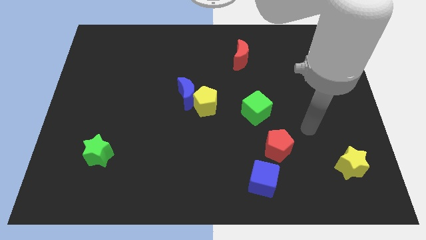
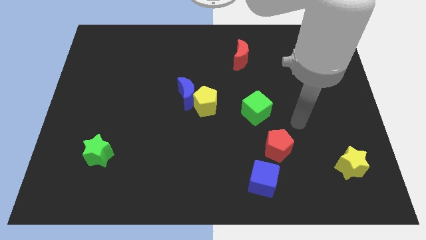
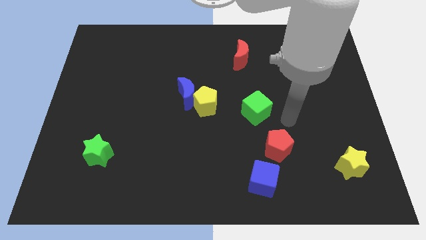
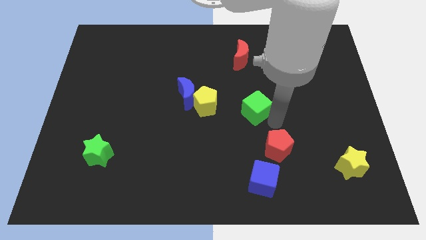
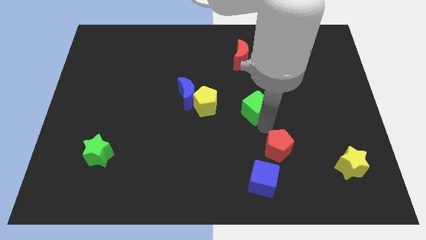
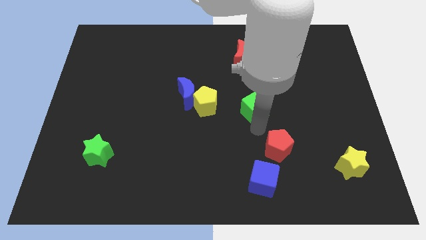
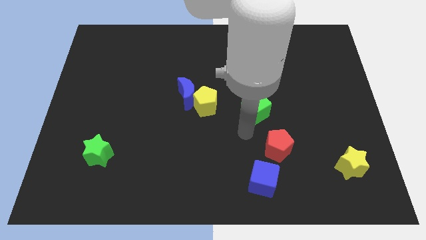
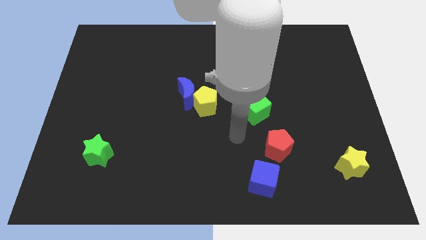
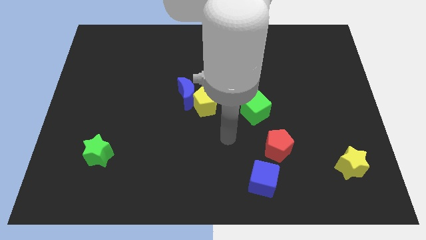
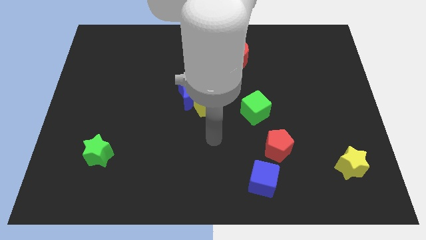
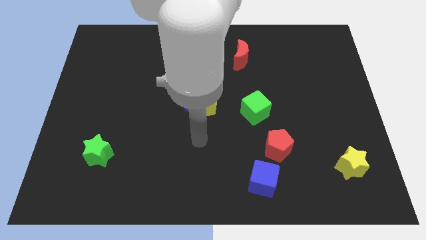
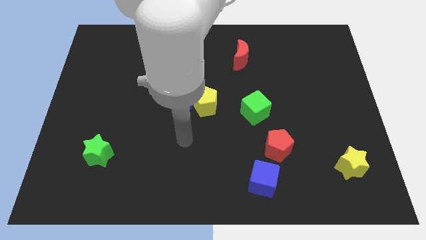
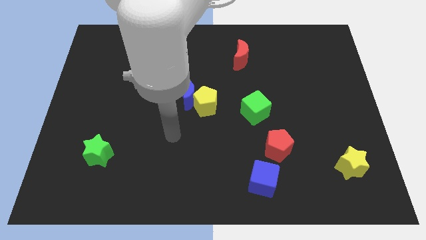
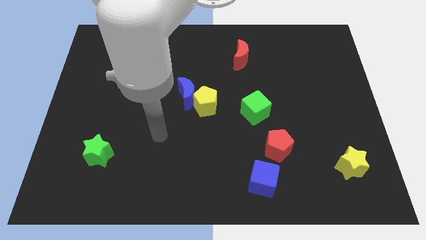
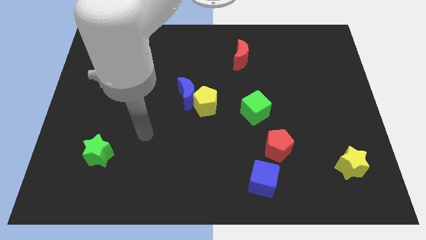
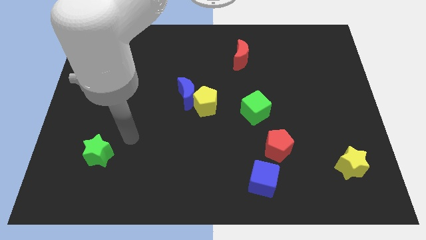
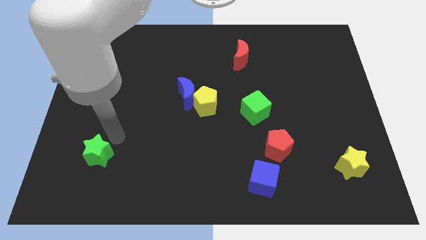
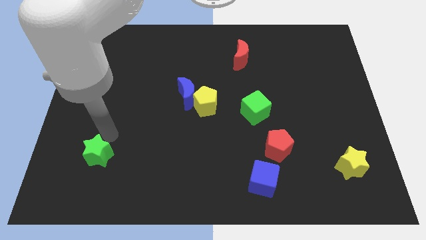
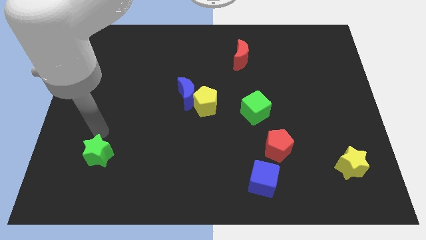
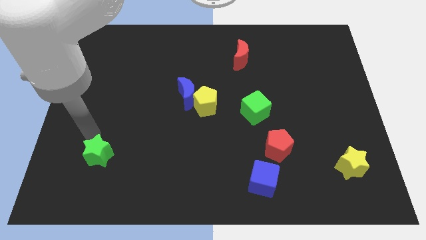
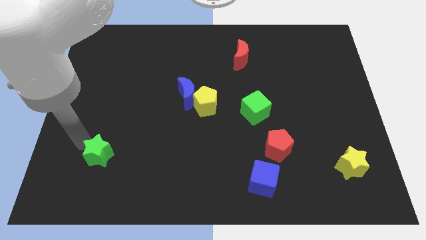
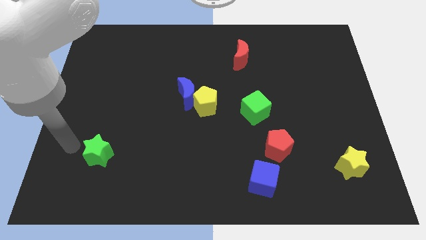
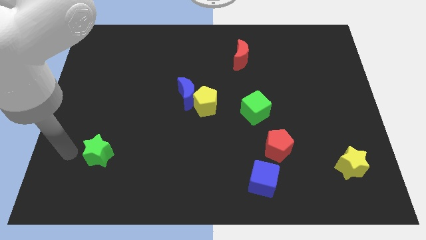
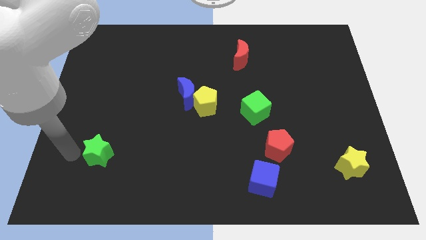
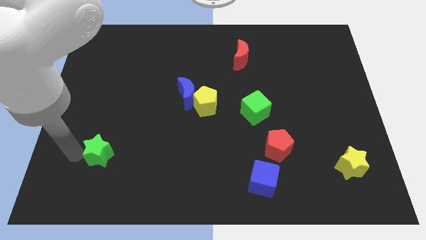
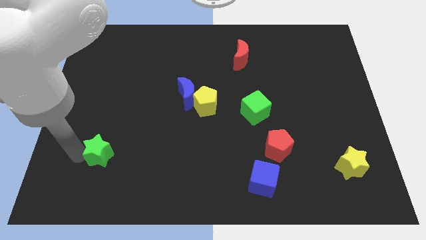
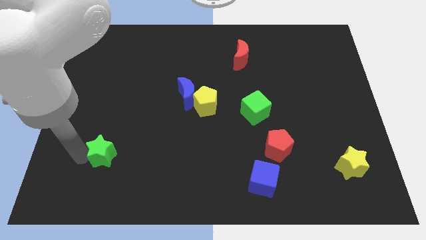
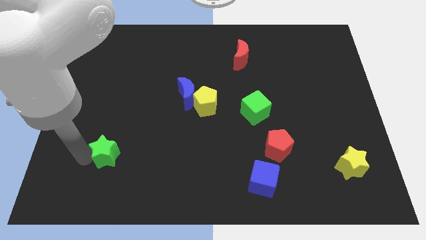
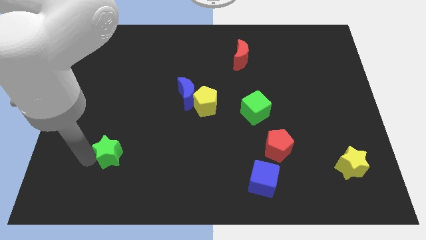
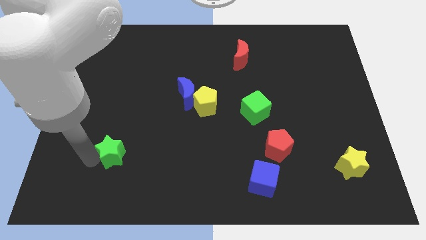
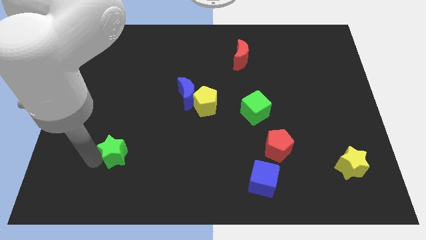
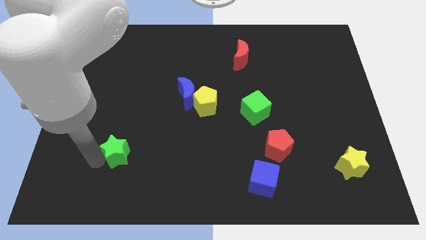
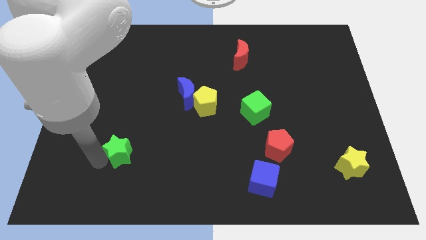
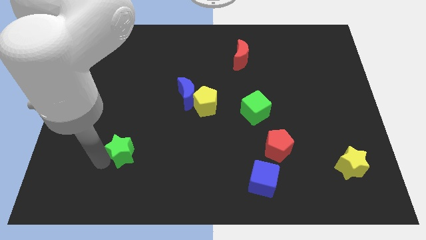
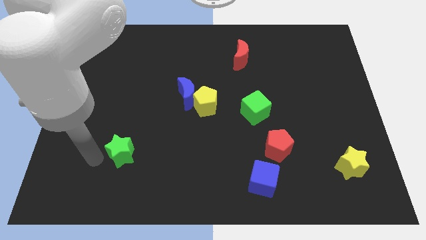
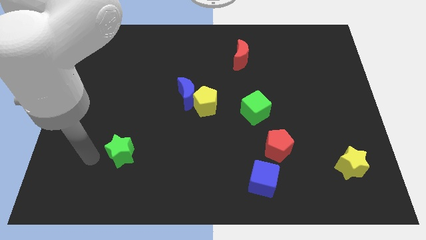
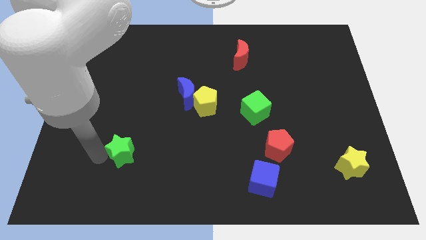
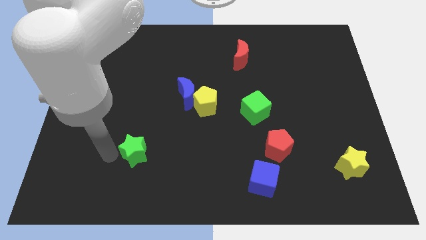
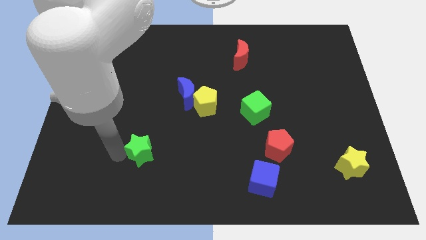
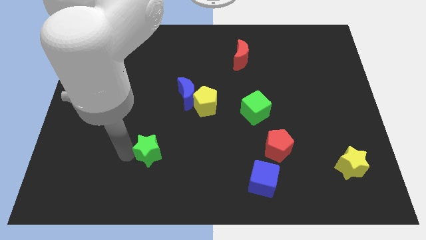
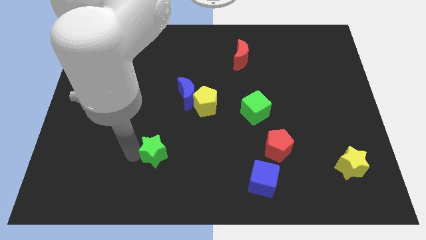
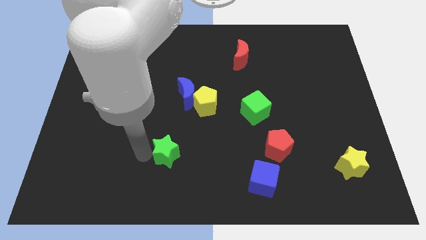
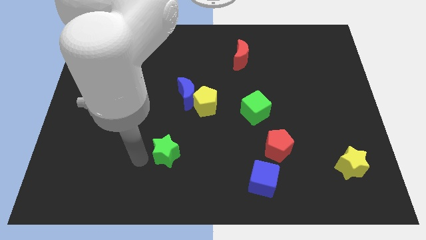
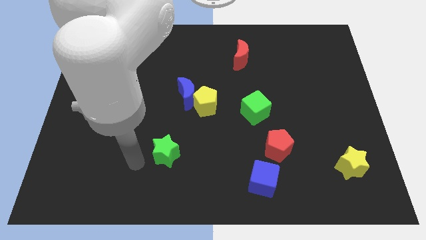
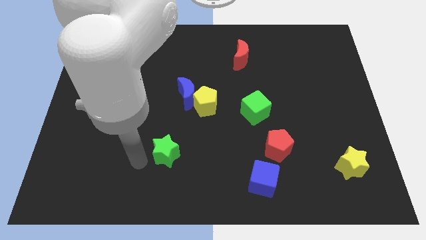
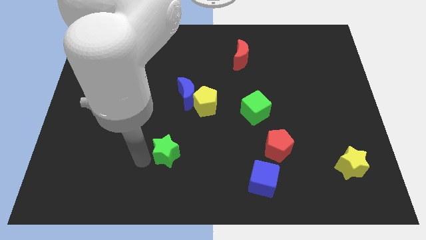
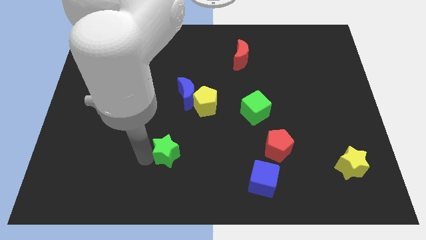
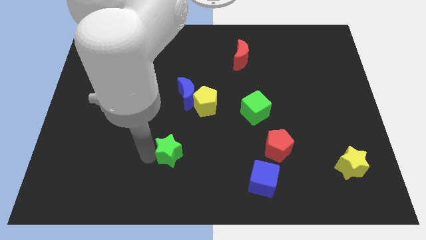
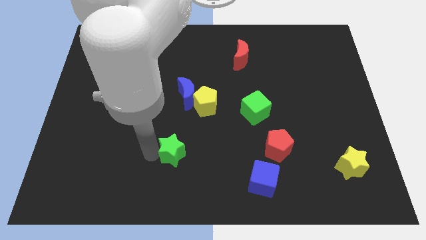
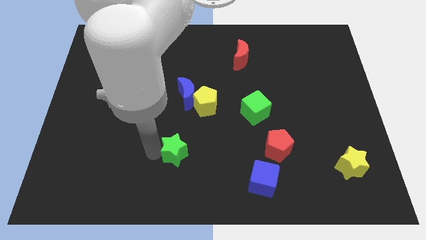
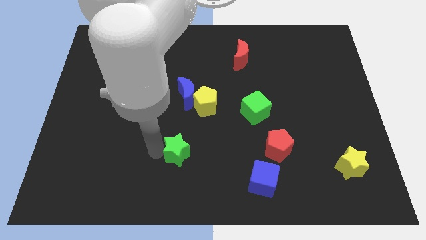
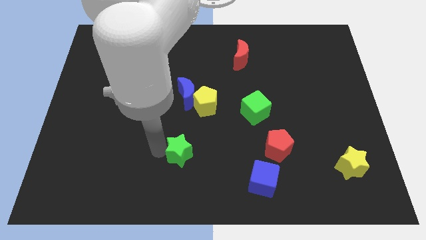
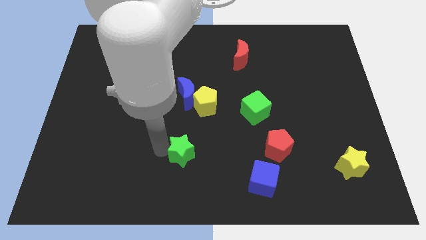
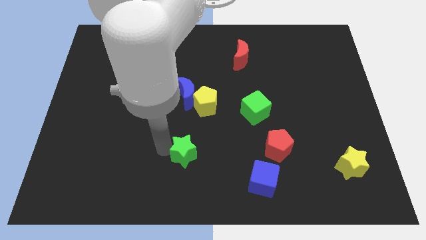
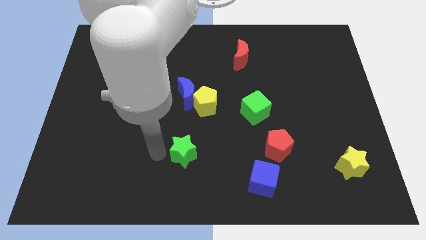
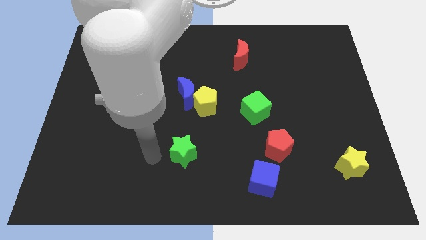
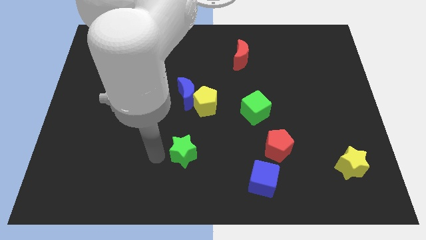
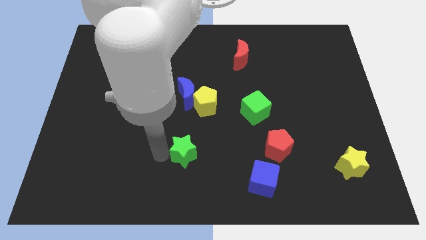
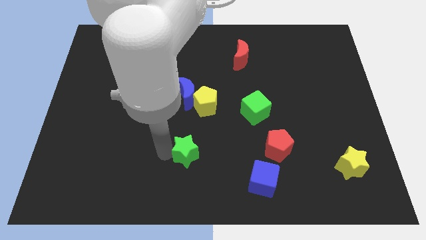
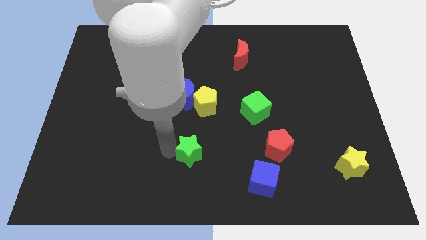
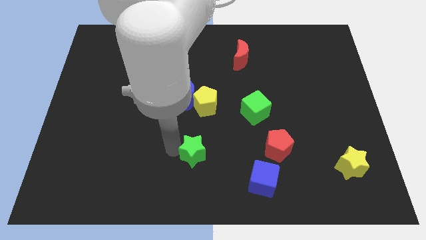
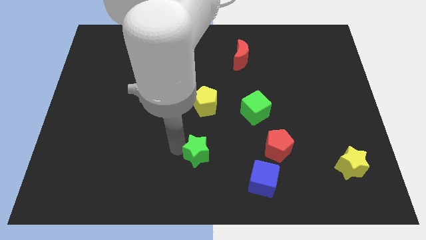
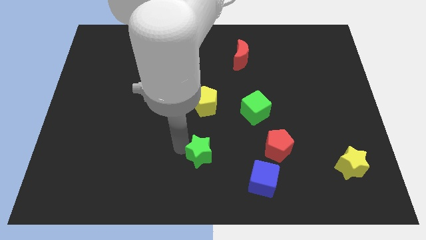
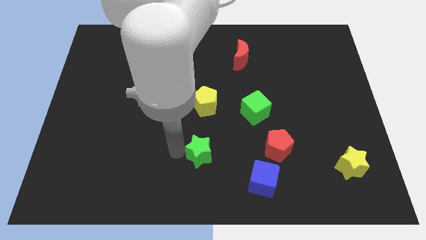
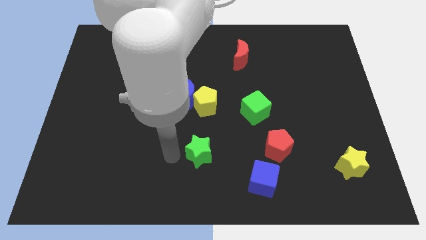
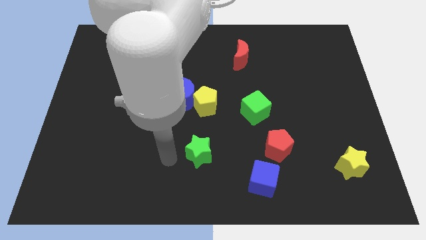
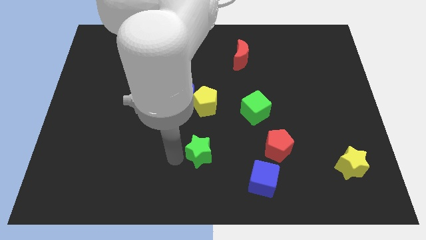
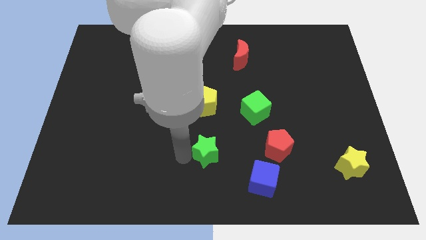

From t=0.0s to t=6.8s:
push the green star to the left of the red pentagon

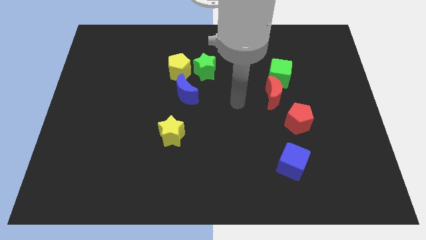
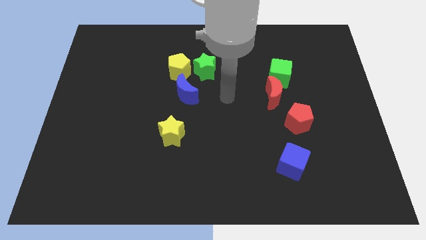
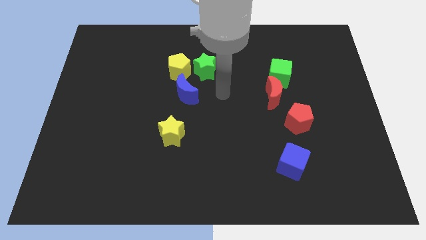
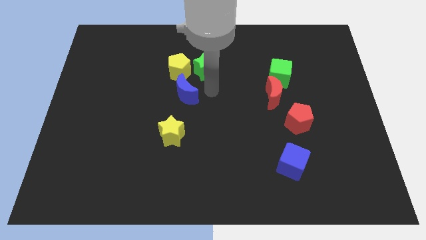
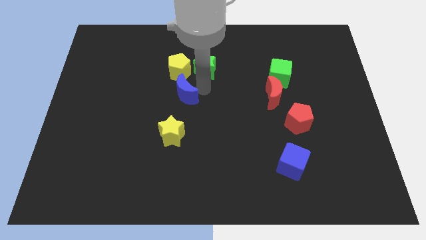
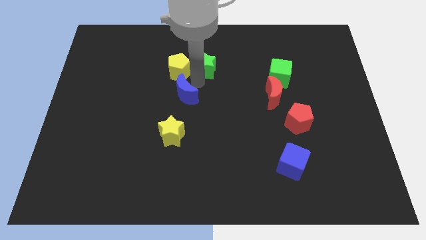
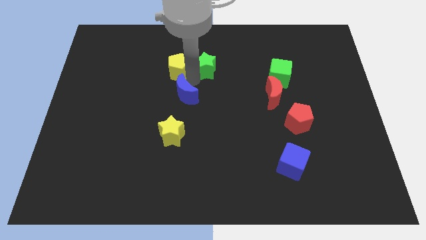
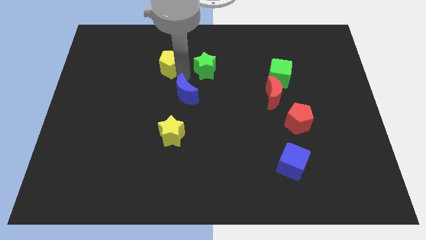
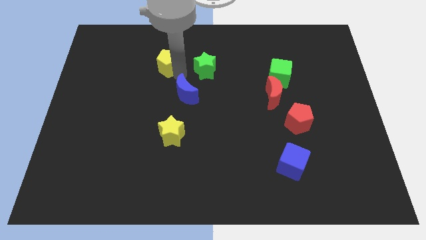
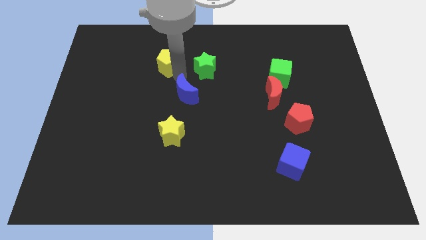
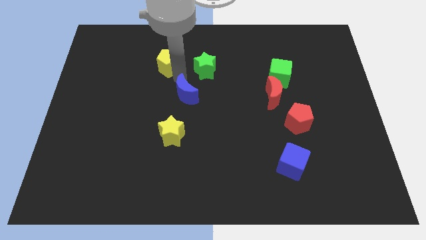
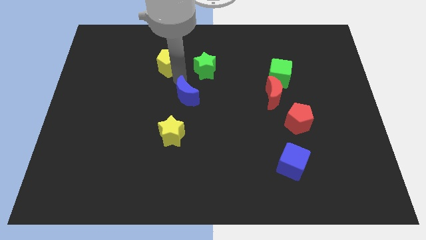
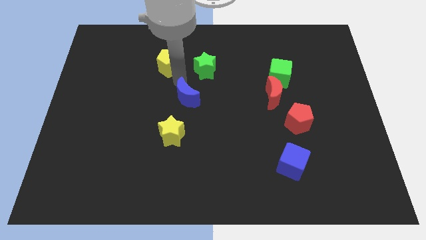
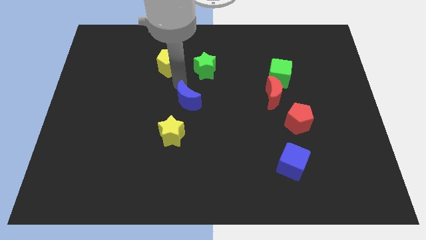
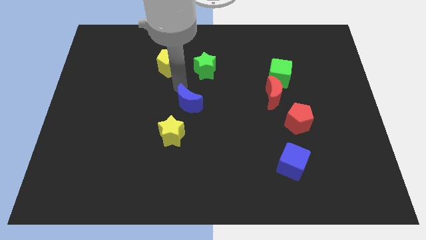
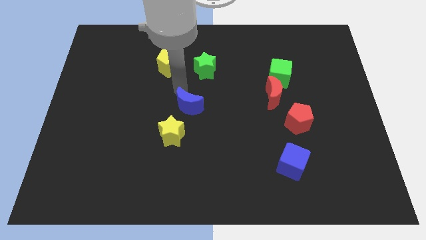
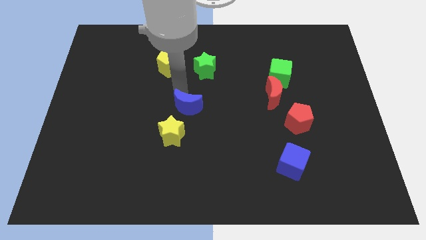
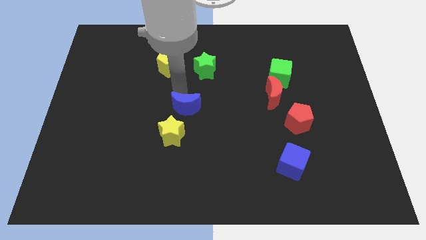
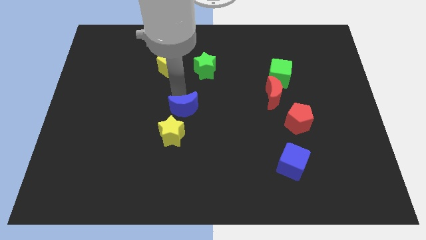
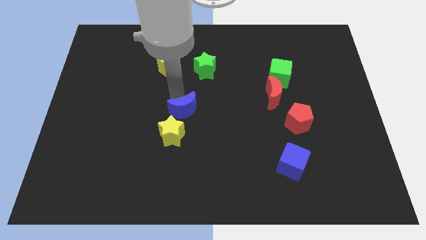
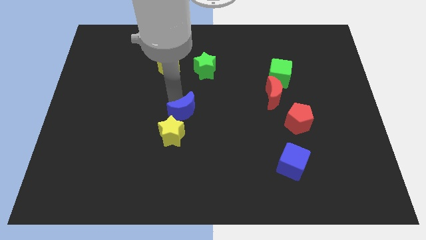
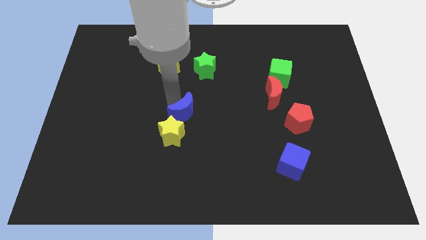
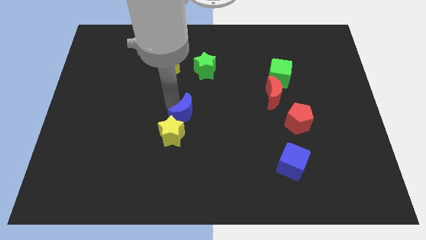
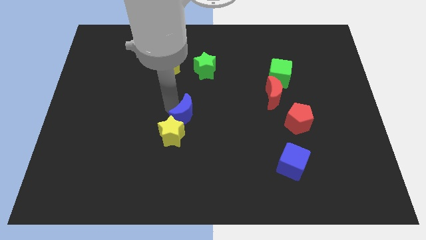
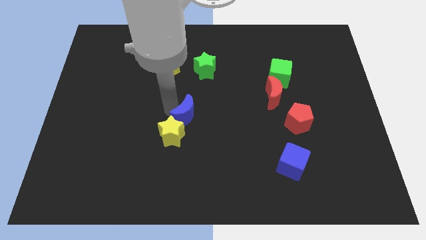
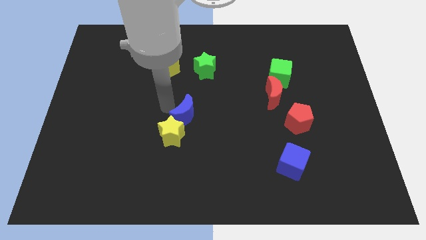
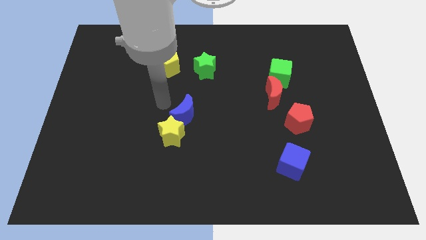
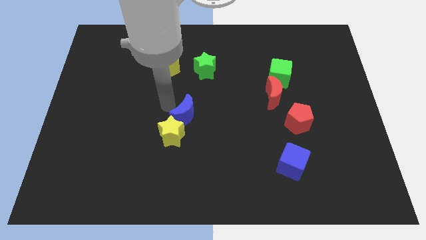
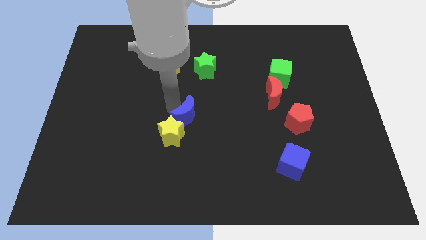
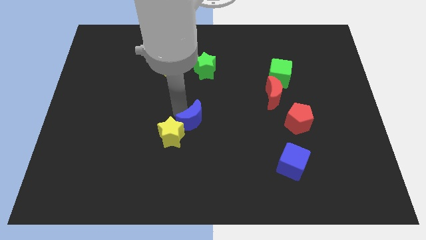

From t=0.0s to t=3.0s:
push the blue moon to the right of the yellow star
